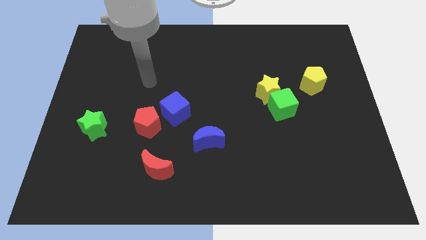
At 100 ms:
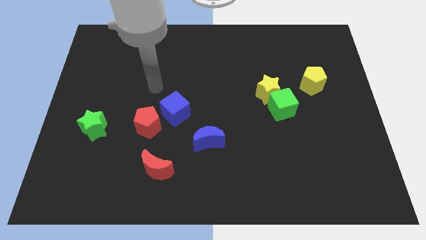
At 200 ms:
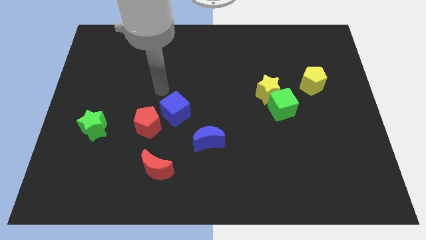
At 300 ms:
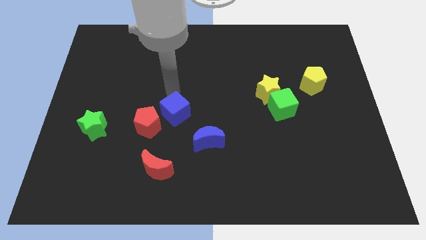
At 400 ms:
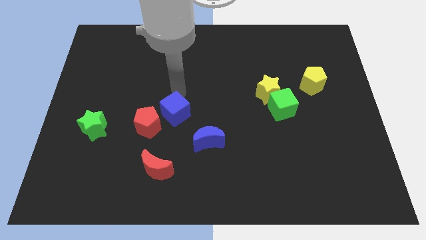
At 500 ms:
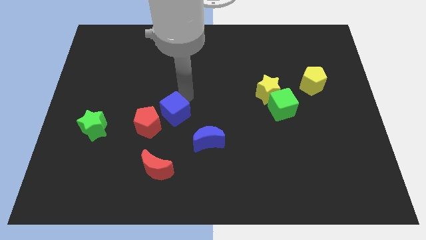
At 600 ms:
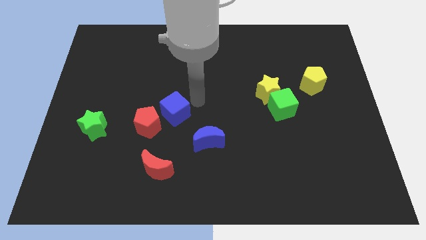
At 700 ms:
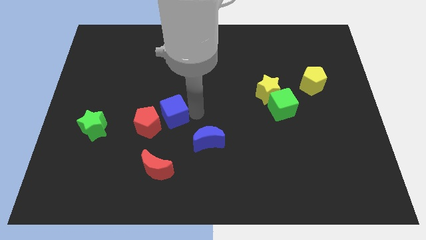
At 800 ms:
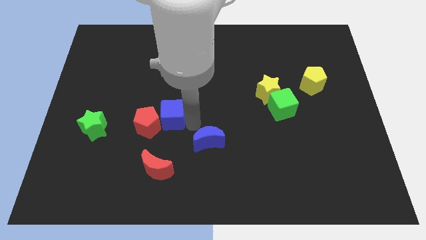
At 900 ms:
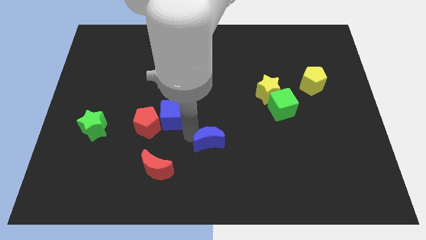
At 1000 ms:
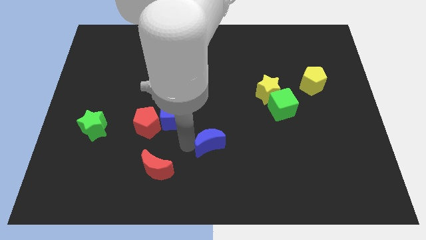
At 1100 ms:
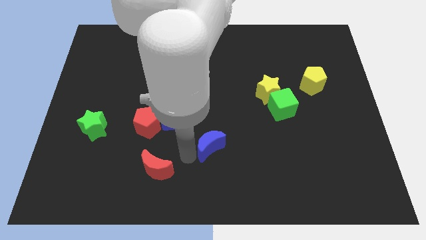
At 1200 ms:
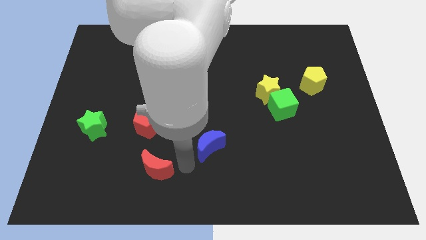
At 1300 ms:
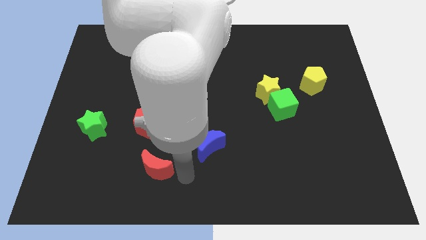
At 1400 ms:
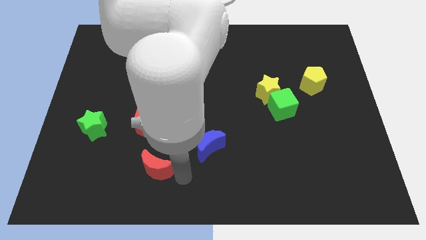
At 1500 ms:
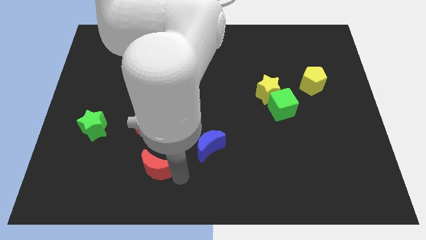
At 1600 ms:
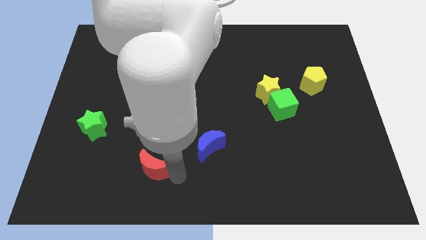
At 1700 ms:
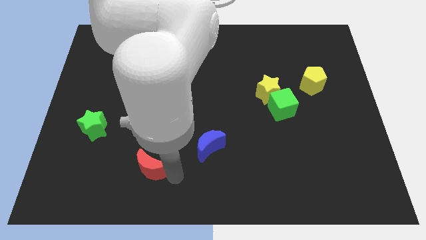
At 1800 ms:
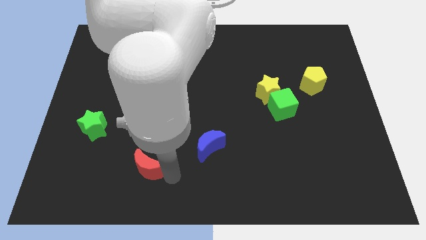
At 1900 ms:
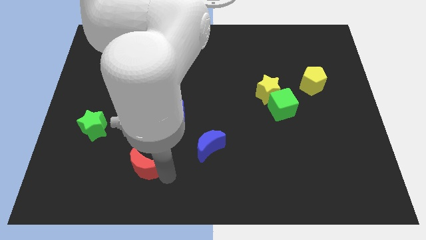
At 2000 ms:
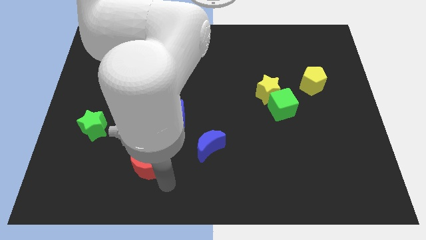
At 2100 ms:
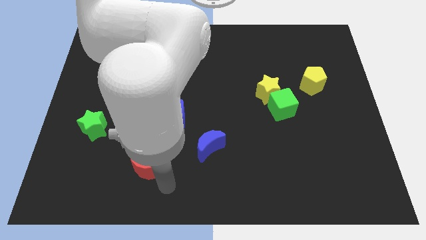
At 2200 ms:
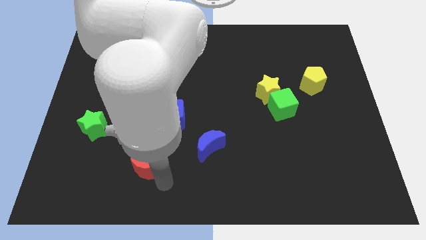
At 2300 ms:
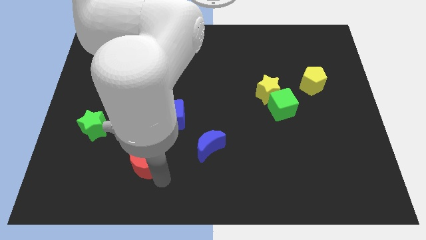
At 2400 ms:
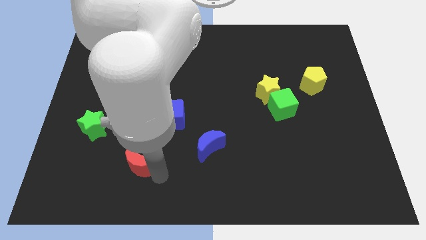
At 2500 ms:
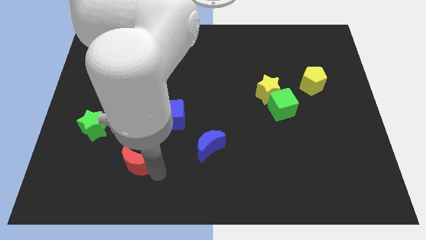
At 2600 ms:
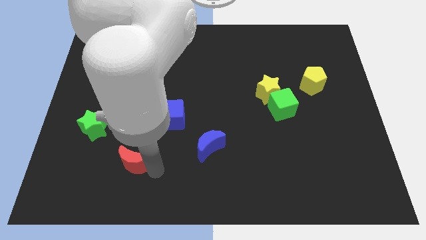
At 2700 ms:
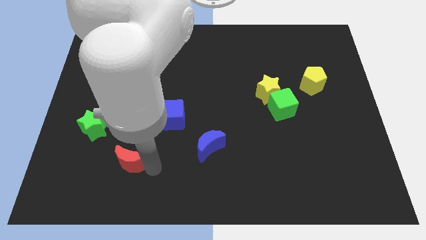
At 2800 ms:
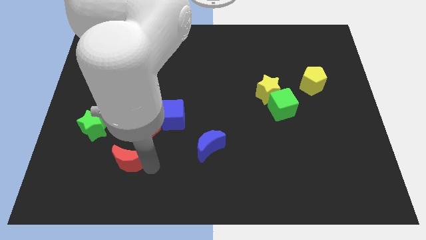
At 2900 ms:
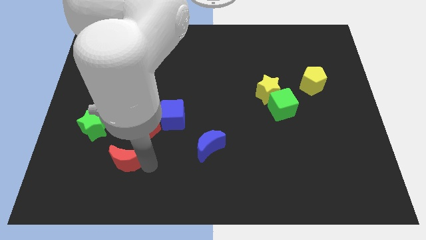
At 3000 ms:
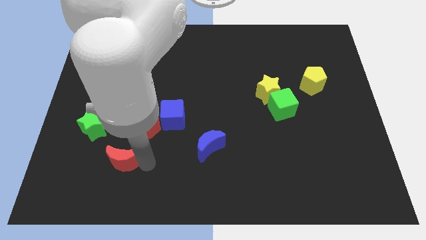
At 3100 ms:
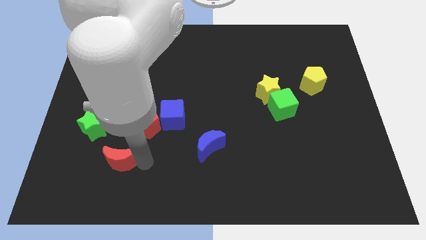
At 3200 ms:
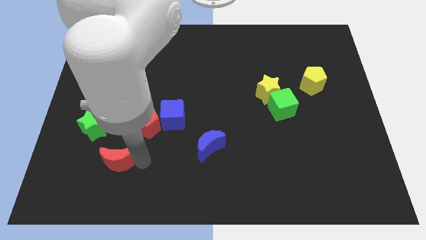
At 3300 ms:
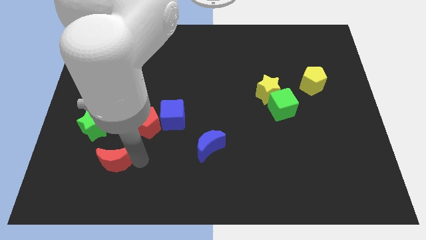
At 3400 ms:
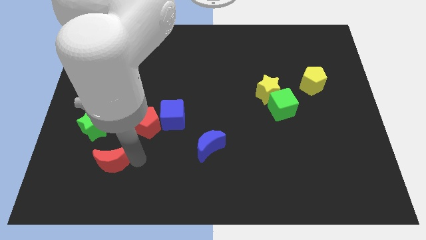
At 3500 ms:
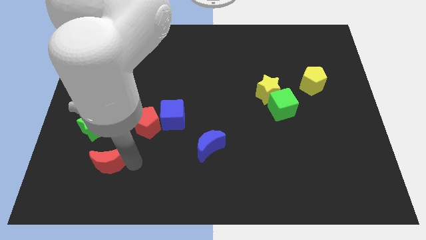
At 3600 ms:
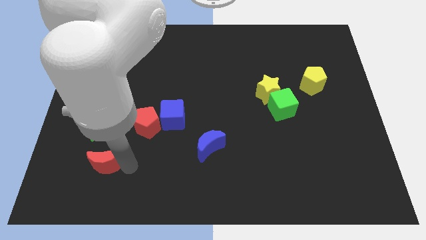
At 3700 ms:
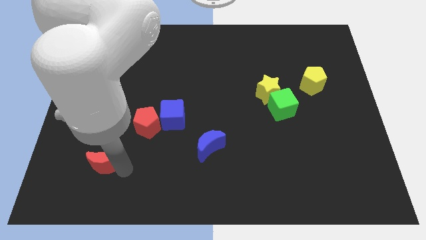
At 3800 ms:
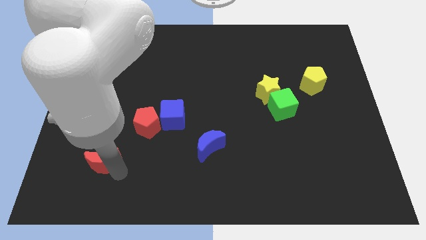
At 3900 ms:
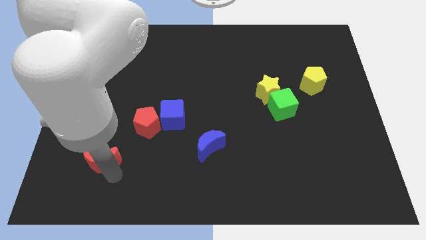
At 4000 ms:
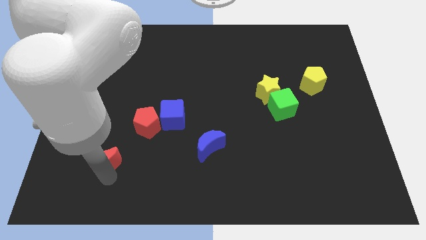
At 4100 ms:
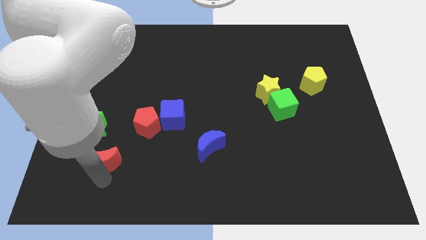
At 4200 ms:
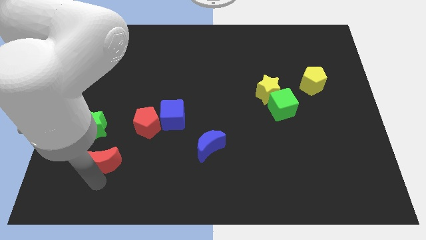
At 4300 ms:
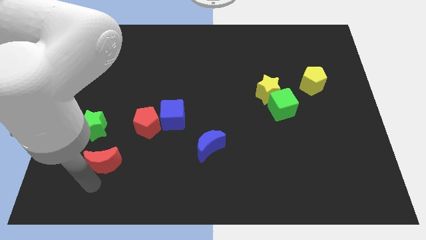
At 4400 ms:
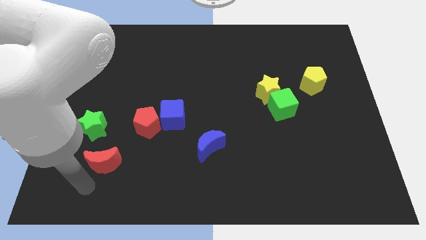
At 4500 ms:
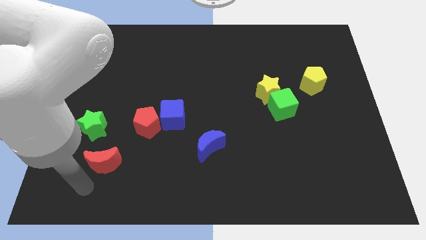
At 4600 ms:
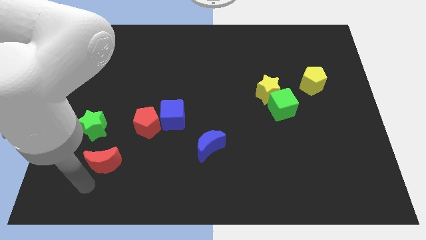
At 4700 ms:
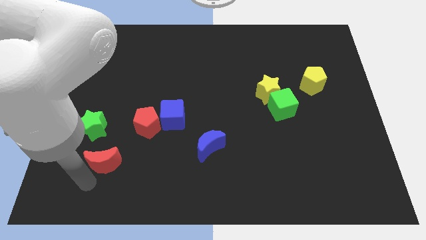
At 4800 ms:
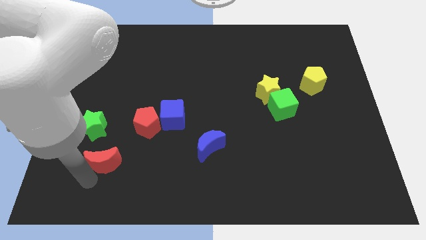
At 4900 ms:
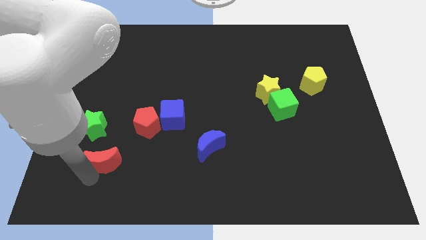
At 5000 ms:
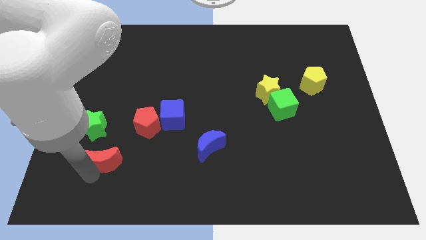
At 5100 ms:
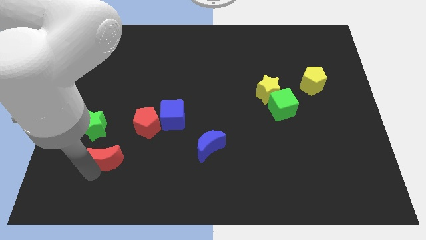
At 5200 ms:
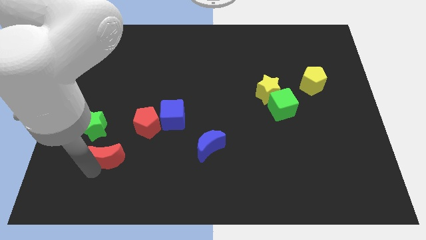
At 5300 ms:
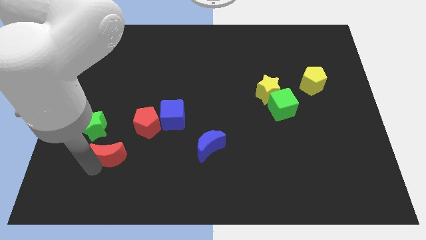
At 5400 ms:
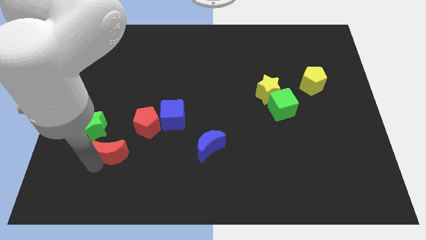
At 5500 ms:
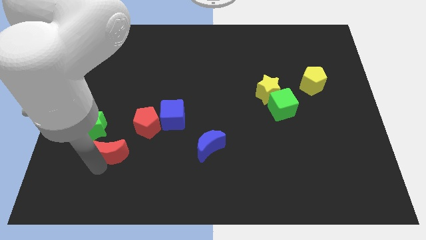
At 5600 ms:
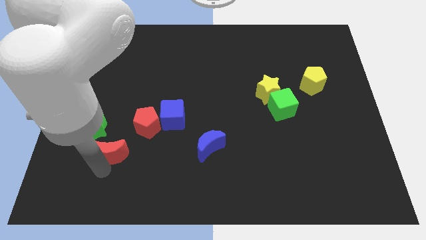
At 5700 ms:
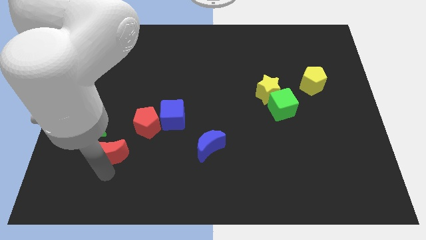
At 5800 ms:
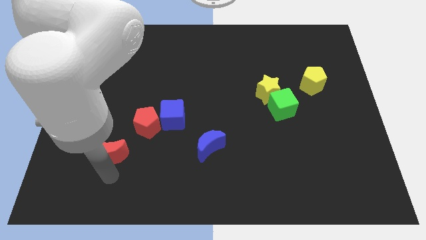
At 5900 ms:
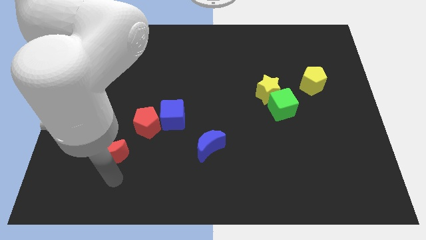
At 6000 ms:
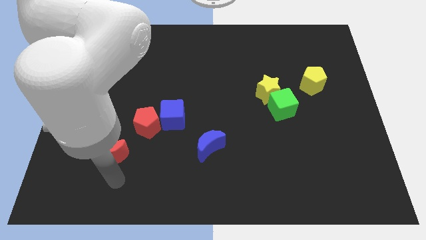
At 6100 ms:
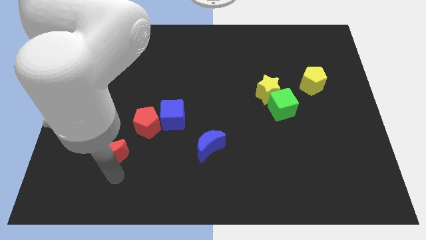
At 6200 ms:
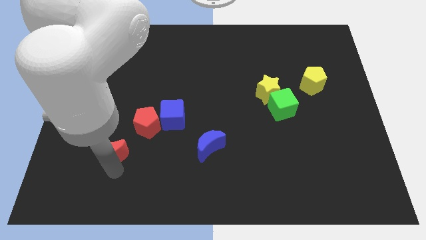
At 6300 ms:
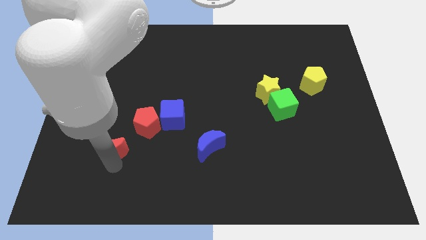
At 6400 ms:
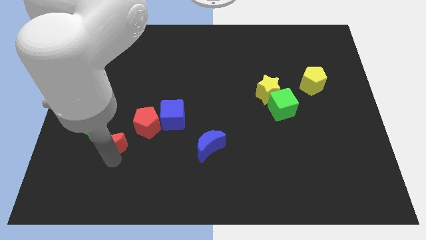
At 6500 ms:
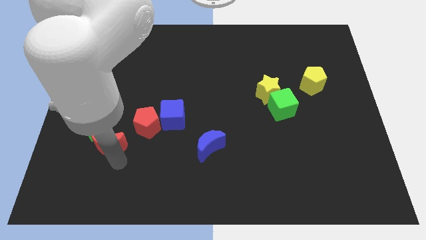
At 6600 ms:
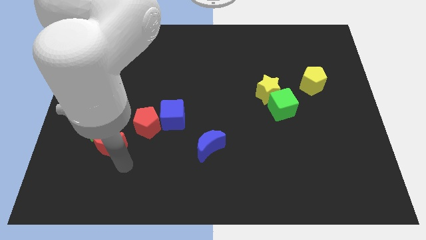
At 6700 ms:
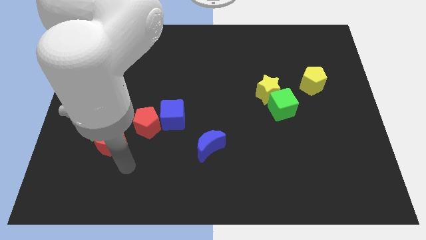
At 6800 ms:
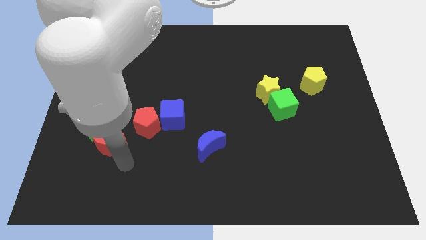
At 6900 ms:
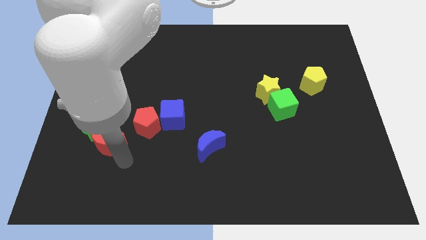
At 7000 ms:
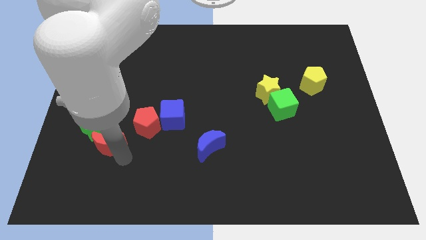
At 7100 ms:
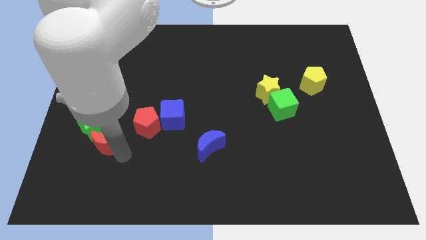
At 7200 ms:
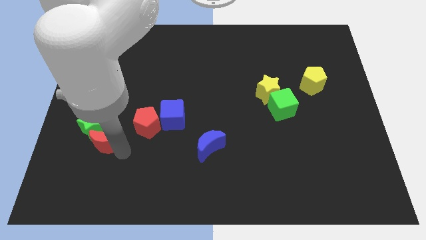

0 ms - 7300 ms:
slide the red moon towards the green star
